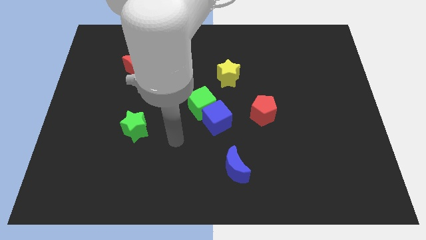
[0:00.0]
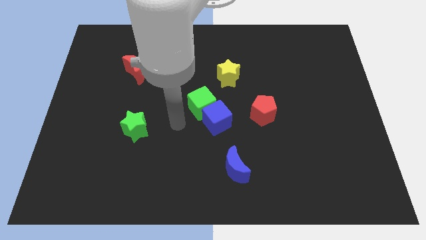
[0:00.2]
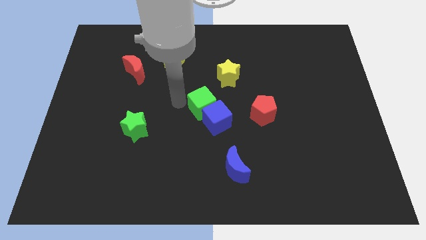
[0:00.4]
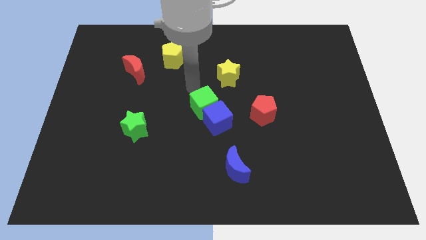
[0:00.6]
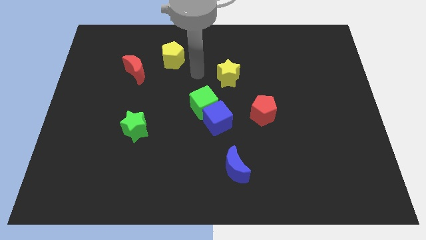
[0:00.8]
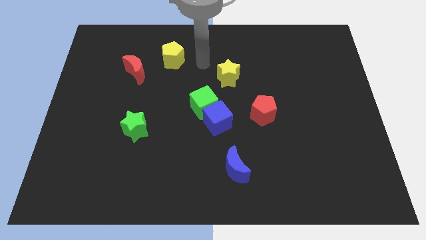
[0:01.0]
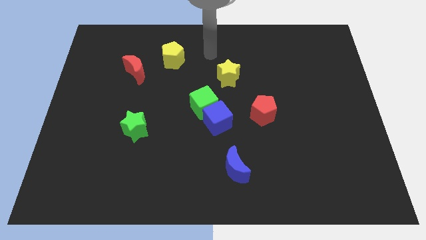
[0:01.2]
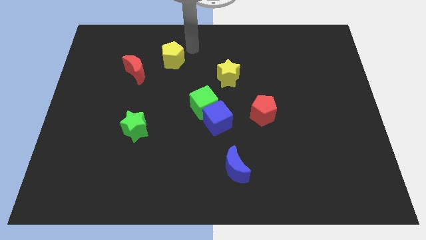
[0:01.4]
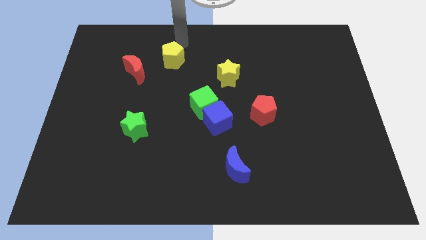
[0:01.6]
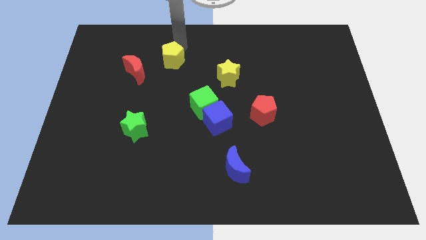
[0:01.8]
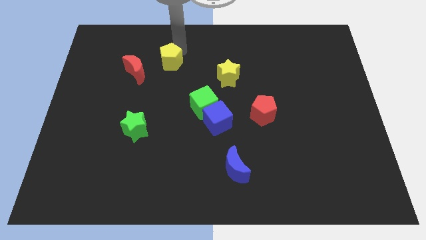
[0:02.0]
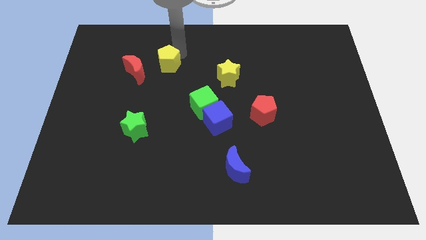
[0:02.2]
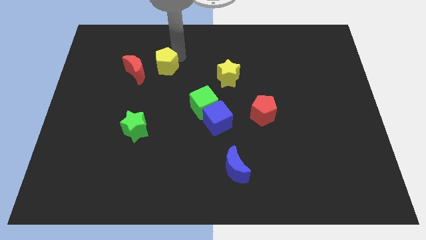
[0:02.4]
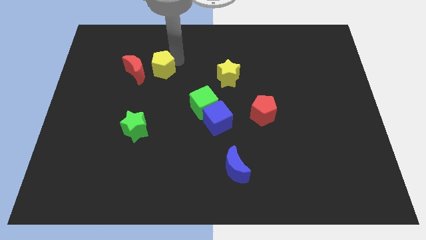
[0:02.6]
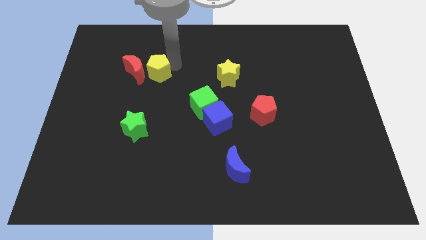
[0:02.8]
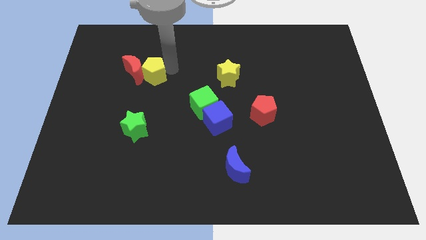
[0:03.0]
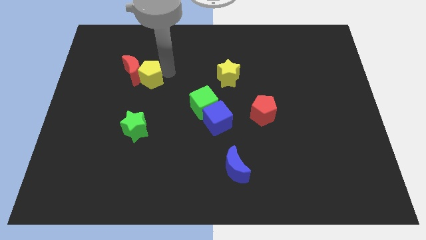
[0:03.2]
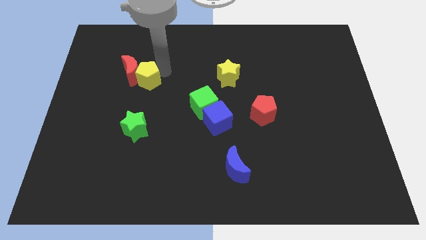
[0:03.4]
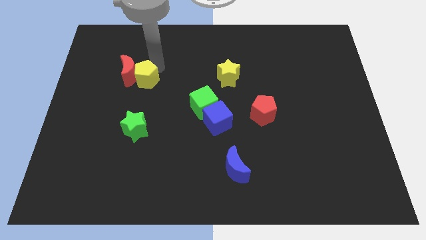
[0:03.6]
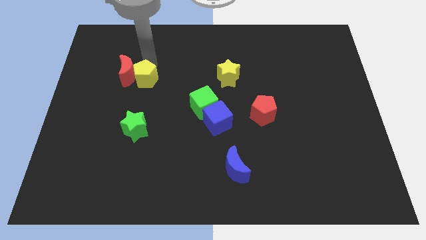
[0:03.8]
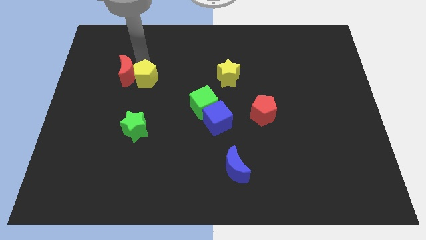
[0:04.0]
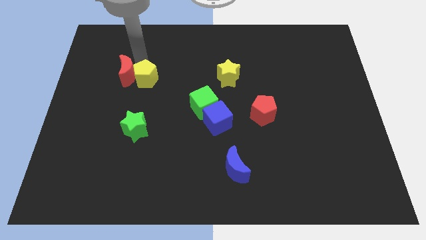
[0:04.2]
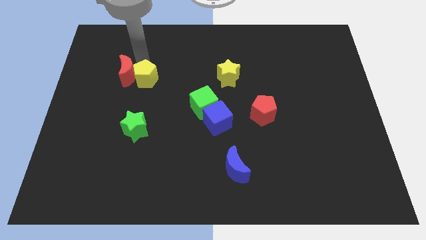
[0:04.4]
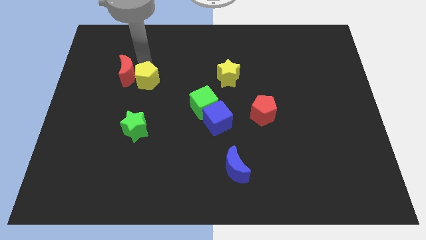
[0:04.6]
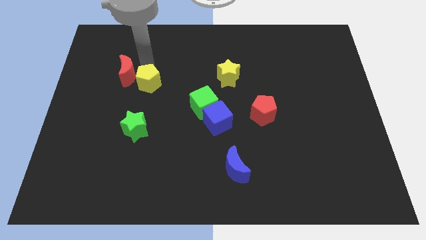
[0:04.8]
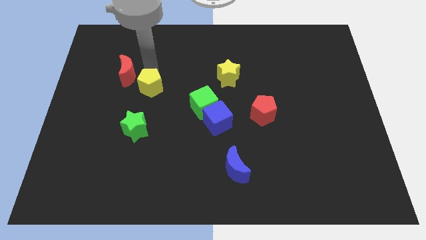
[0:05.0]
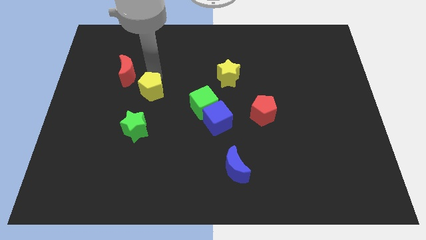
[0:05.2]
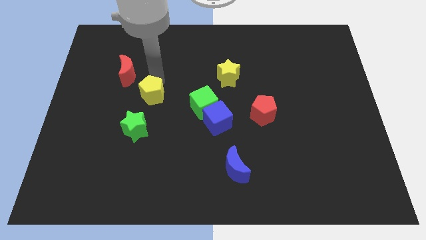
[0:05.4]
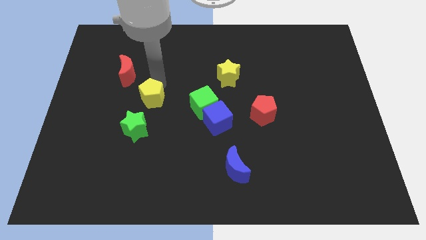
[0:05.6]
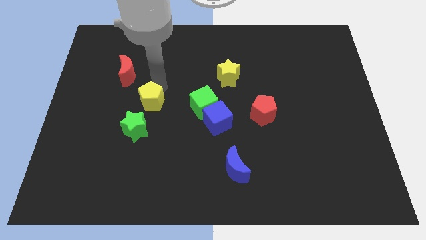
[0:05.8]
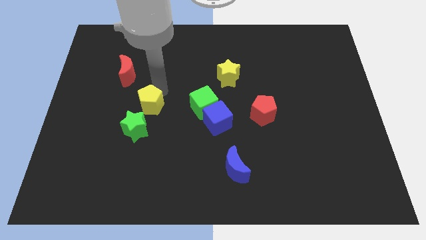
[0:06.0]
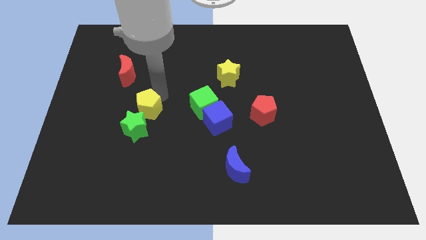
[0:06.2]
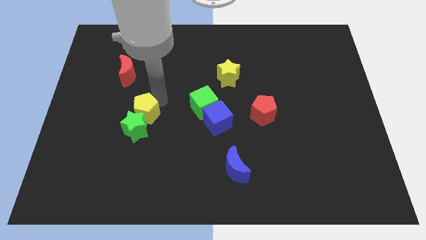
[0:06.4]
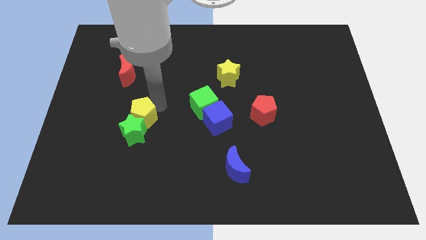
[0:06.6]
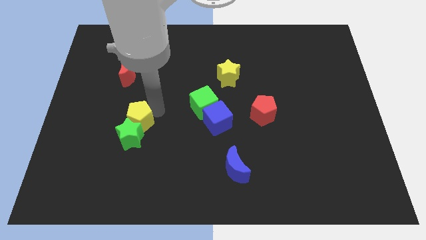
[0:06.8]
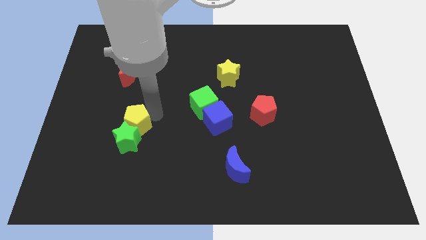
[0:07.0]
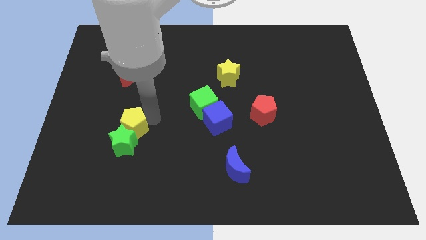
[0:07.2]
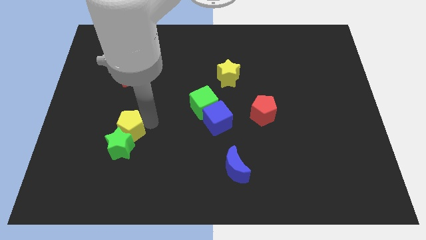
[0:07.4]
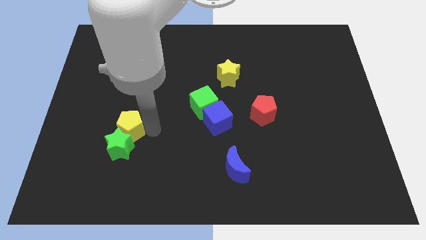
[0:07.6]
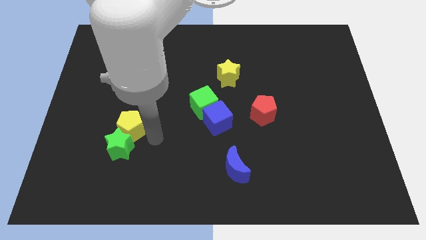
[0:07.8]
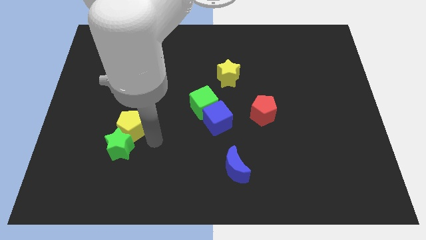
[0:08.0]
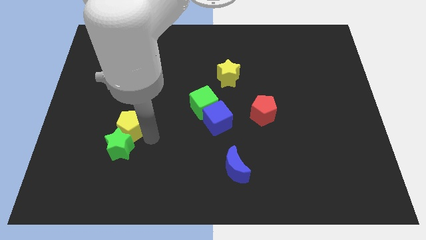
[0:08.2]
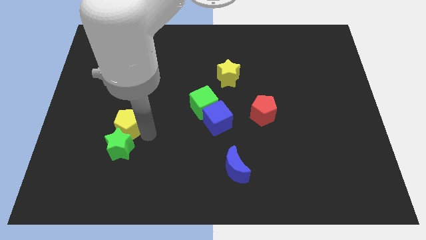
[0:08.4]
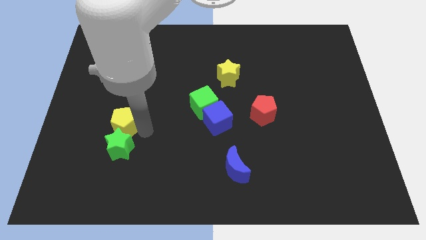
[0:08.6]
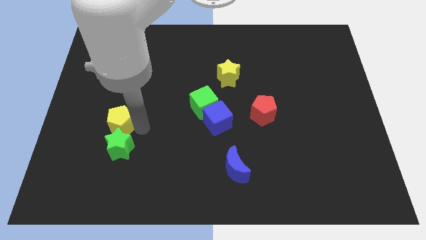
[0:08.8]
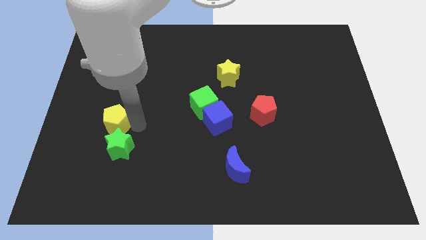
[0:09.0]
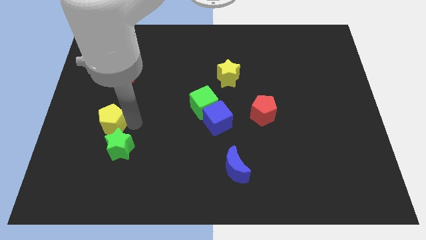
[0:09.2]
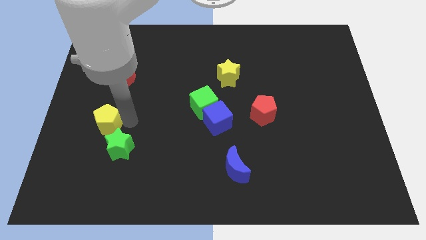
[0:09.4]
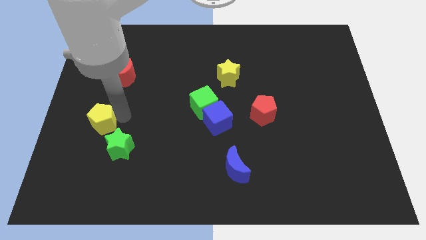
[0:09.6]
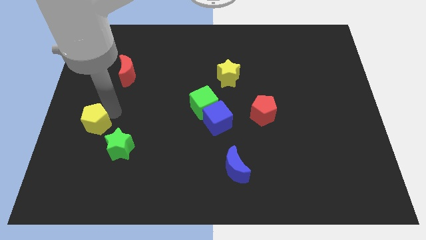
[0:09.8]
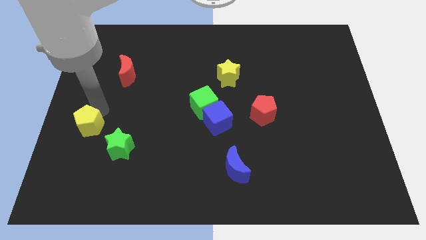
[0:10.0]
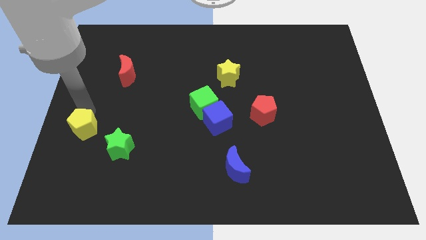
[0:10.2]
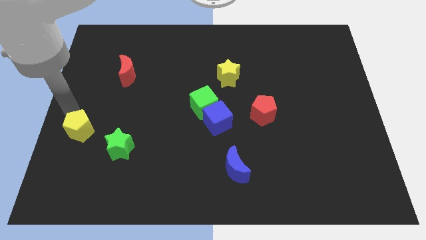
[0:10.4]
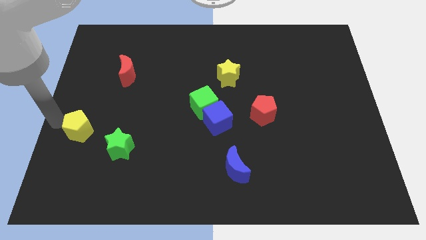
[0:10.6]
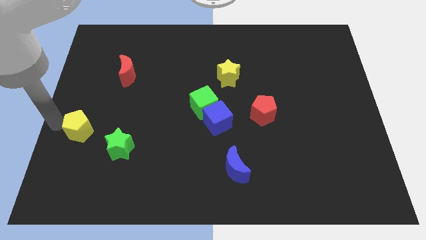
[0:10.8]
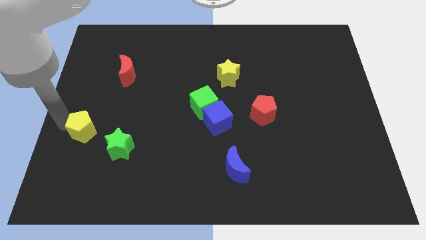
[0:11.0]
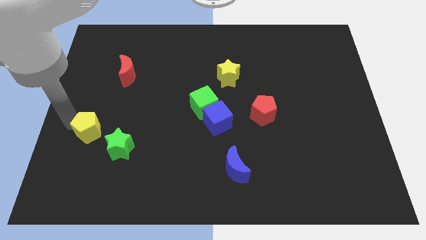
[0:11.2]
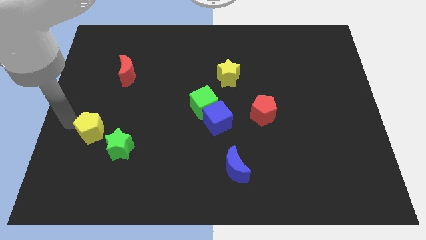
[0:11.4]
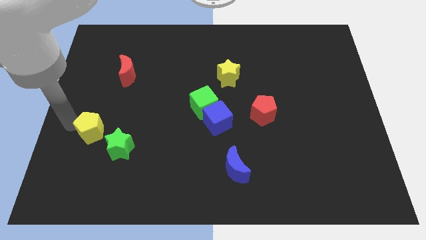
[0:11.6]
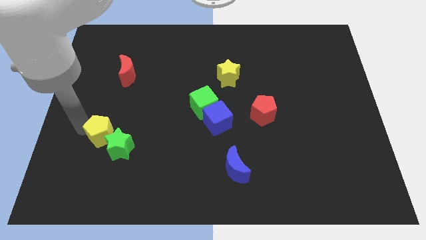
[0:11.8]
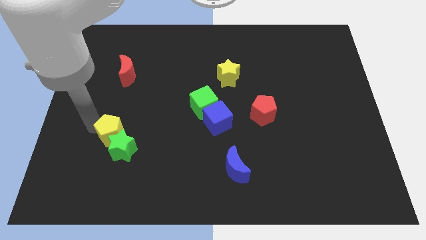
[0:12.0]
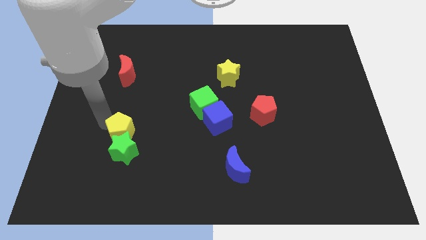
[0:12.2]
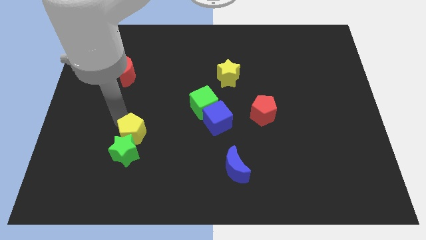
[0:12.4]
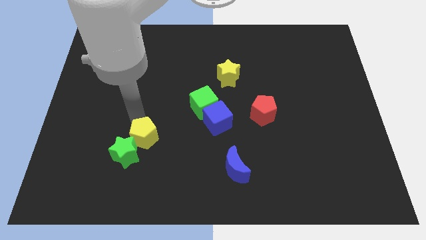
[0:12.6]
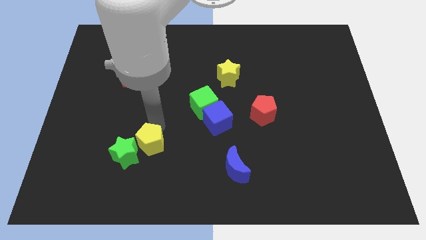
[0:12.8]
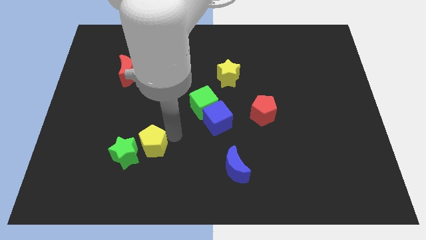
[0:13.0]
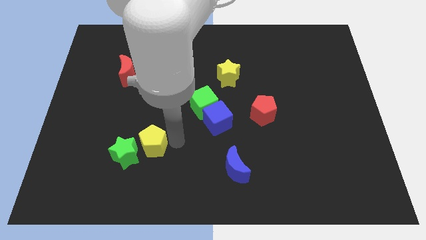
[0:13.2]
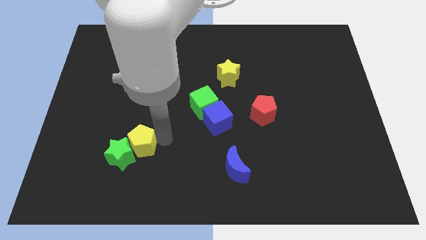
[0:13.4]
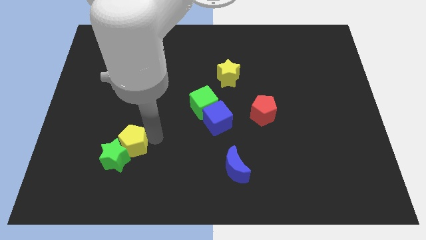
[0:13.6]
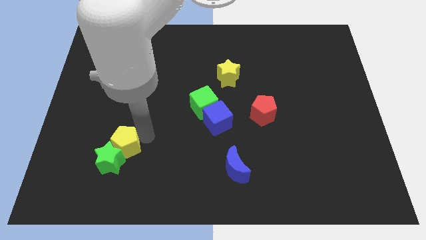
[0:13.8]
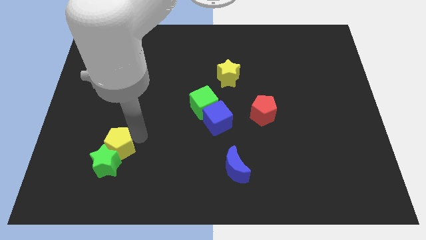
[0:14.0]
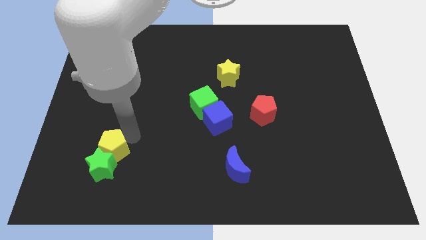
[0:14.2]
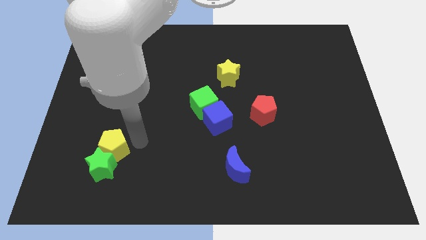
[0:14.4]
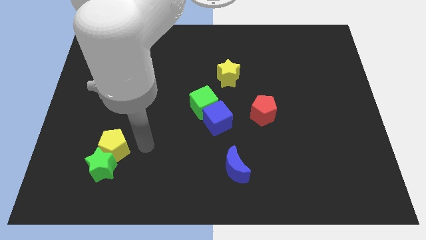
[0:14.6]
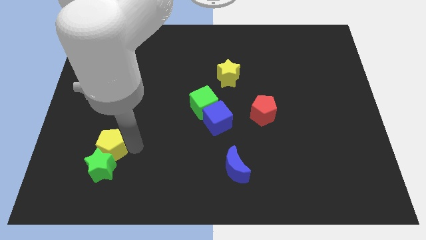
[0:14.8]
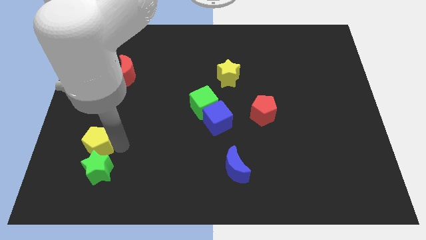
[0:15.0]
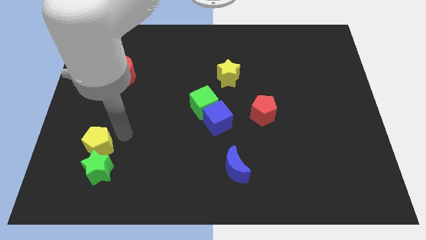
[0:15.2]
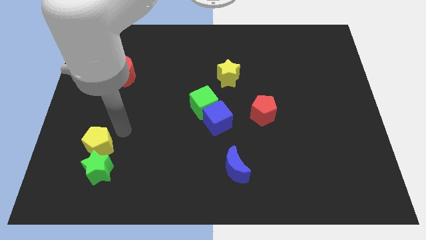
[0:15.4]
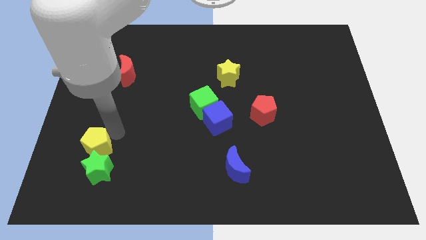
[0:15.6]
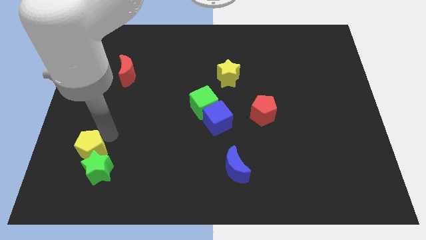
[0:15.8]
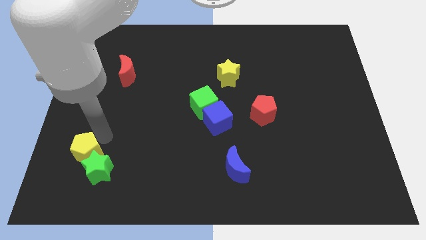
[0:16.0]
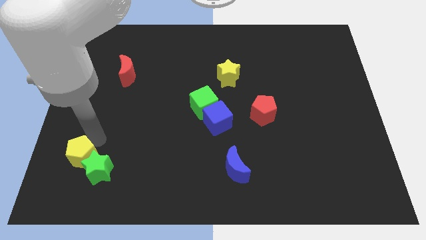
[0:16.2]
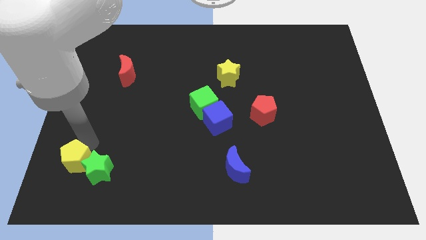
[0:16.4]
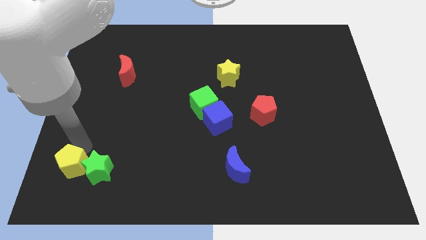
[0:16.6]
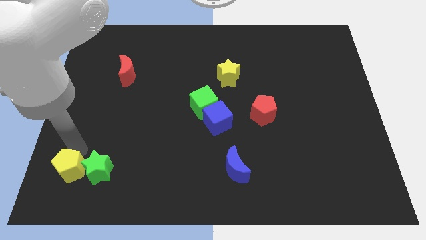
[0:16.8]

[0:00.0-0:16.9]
push the yellow pentagon to the lower left corner
